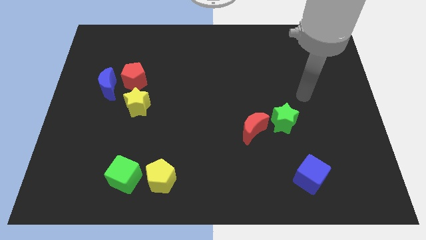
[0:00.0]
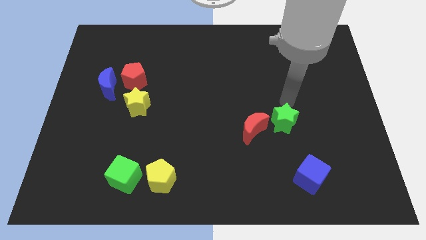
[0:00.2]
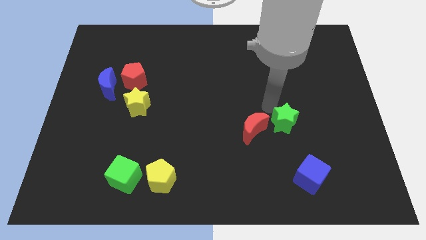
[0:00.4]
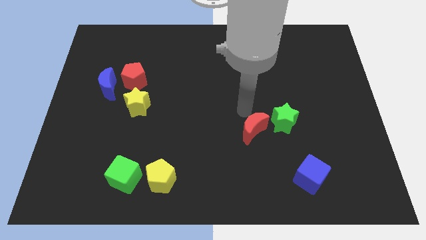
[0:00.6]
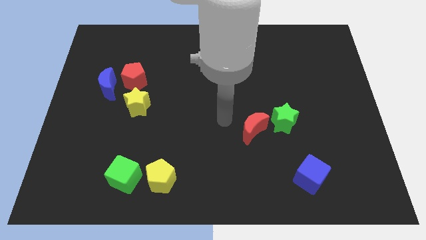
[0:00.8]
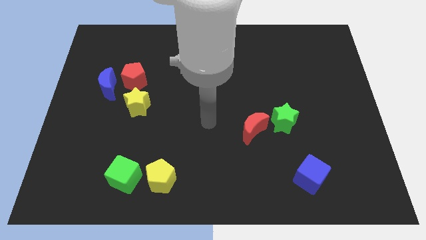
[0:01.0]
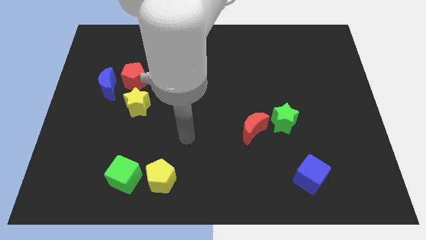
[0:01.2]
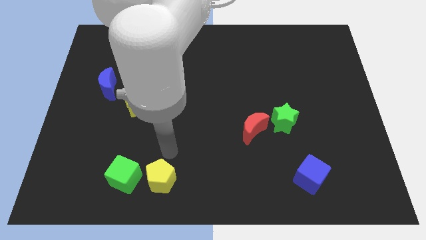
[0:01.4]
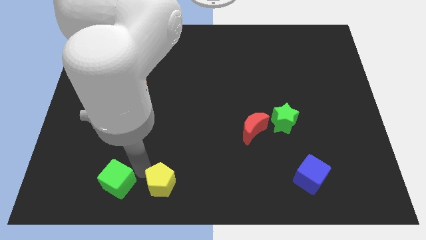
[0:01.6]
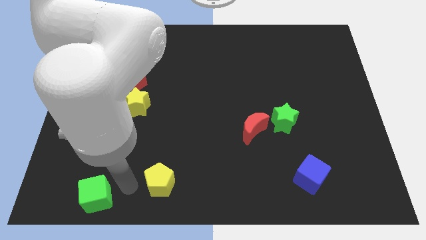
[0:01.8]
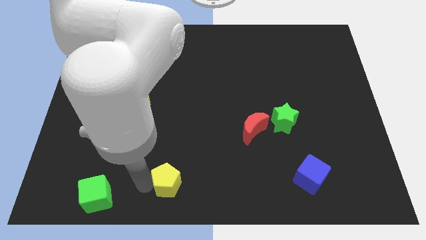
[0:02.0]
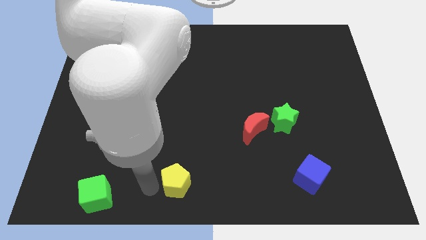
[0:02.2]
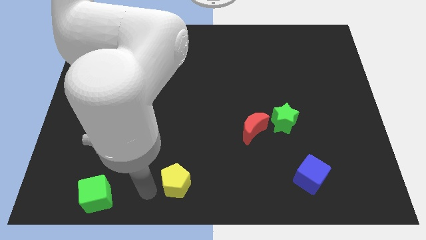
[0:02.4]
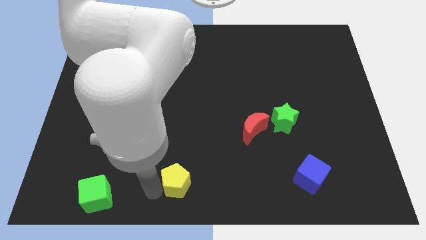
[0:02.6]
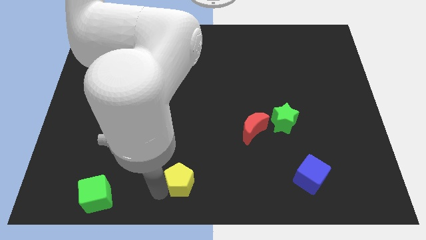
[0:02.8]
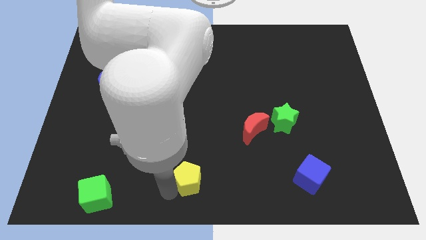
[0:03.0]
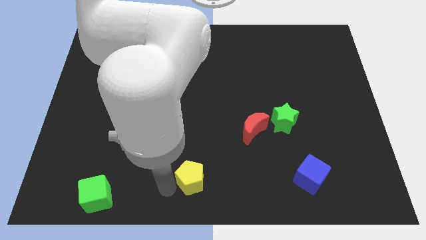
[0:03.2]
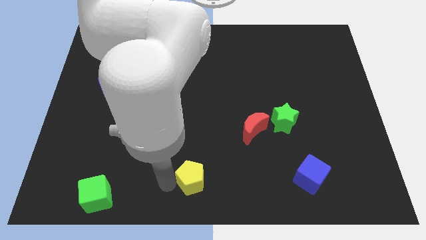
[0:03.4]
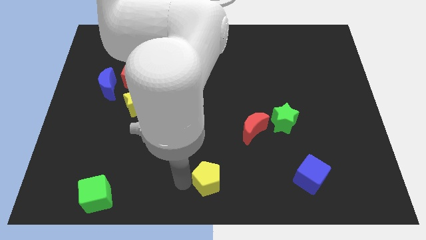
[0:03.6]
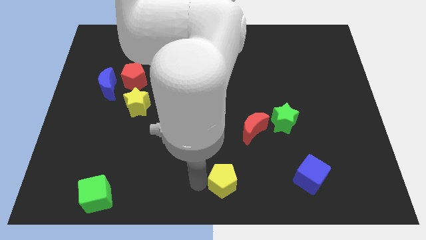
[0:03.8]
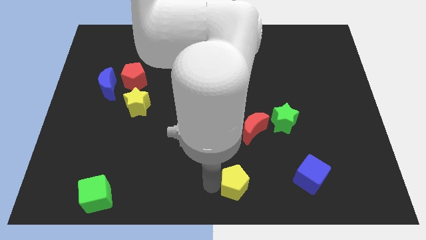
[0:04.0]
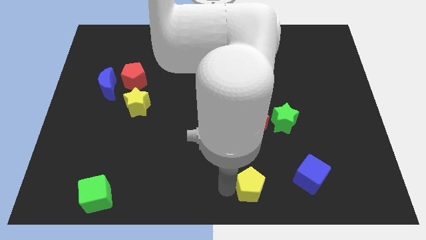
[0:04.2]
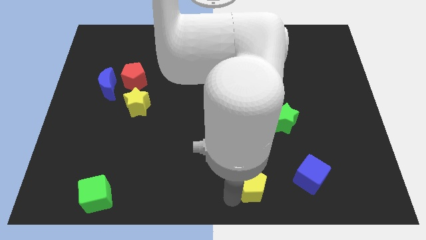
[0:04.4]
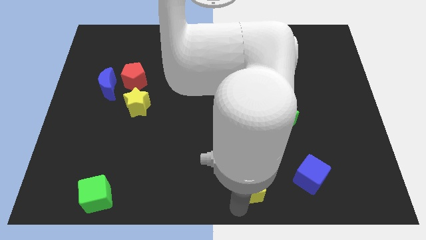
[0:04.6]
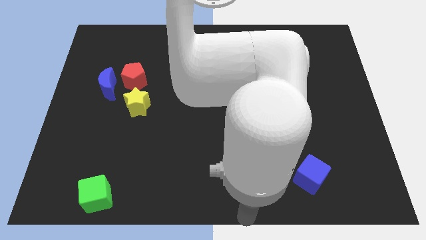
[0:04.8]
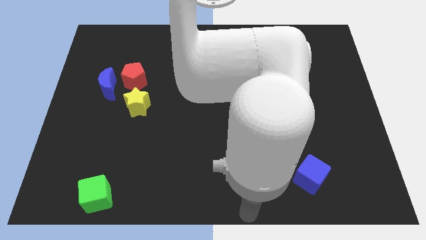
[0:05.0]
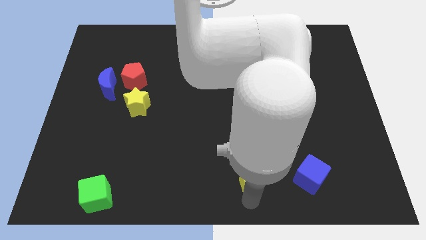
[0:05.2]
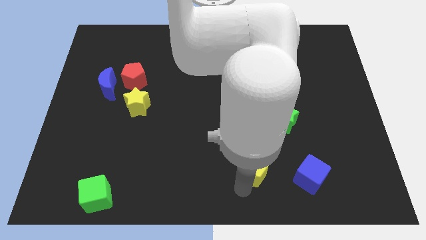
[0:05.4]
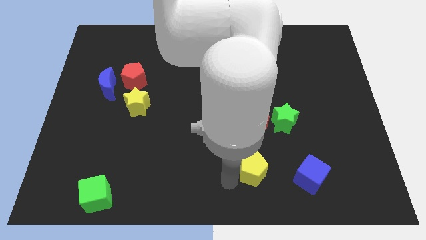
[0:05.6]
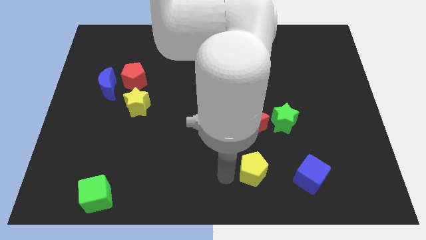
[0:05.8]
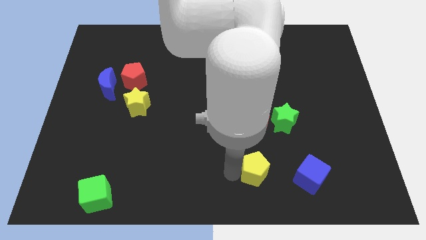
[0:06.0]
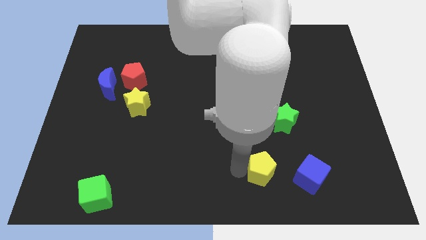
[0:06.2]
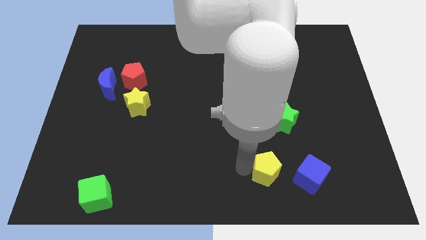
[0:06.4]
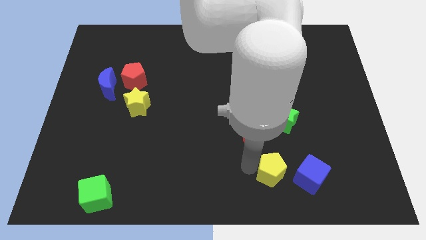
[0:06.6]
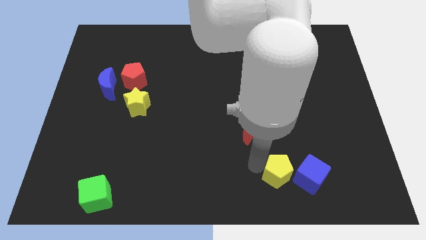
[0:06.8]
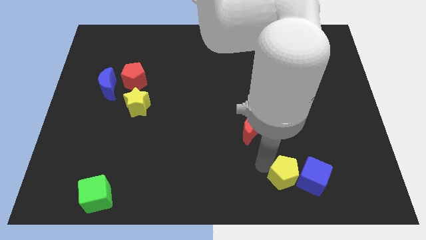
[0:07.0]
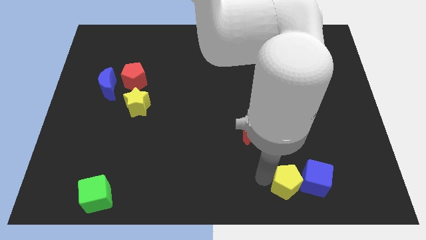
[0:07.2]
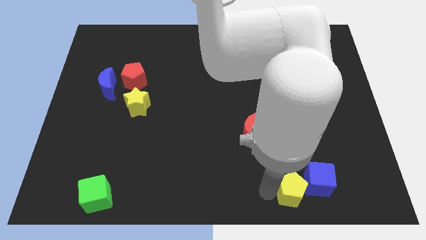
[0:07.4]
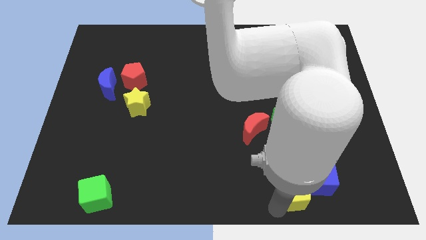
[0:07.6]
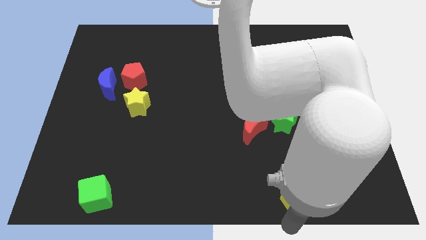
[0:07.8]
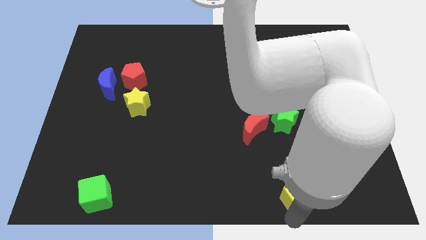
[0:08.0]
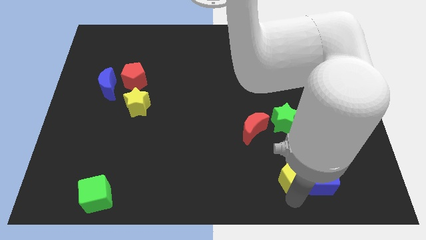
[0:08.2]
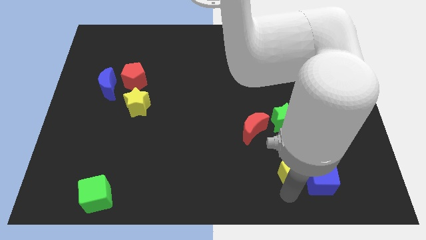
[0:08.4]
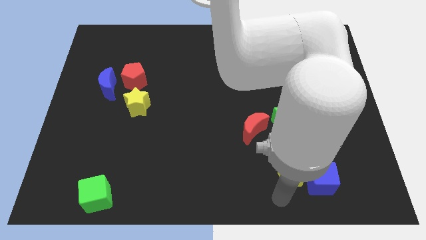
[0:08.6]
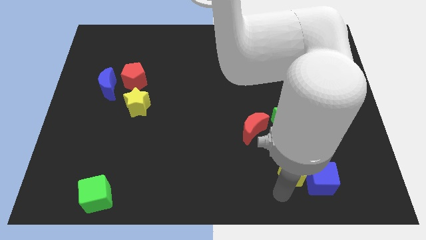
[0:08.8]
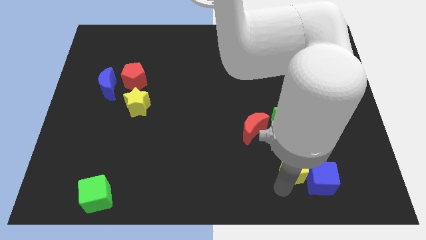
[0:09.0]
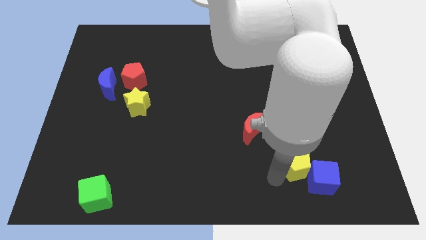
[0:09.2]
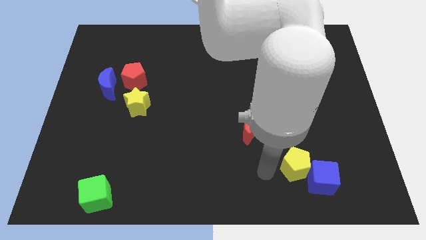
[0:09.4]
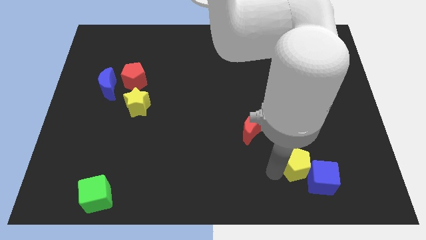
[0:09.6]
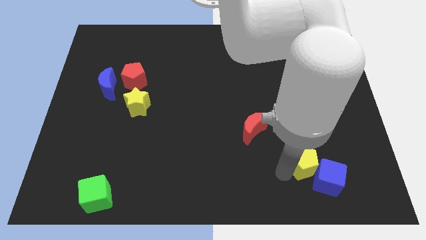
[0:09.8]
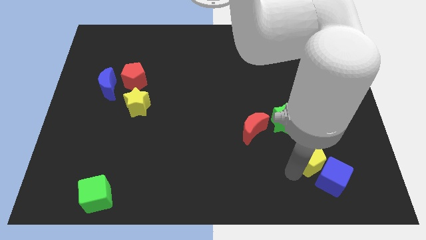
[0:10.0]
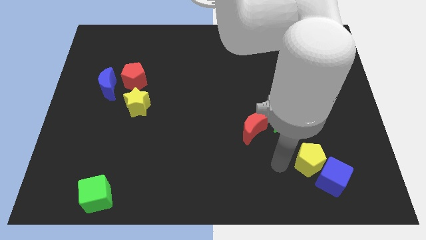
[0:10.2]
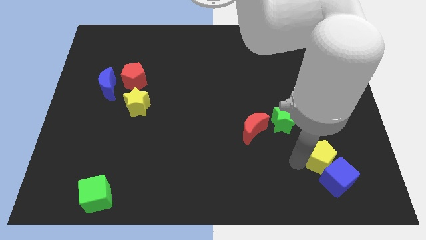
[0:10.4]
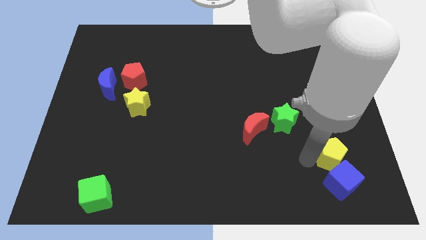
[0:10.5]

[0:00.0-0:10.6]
put the yellow pentagon to the top right side of the blue cube

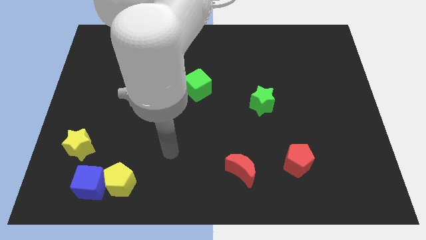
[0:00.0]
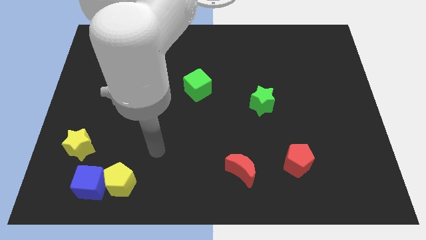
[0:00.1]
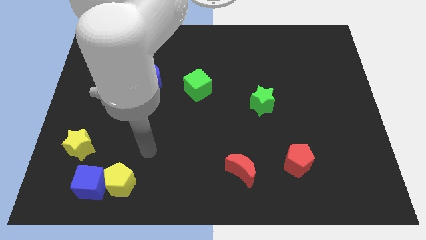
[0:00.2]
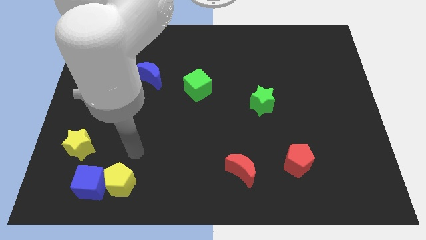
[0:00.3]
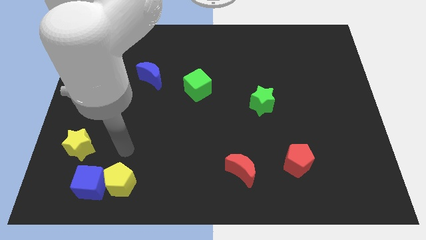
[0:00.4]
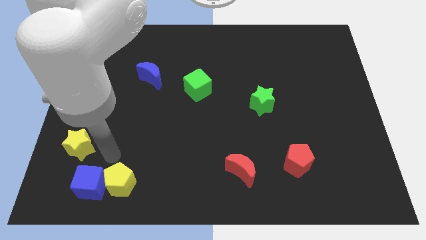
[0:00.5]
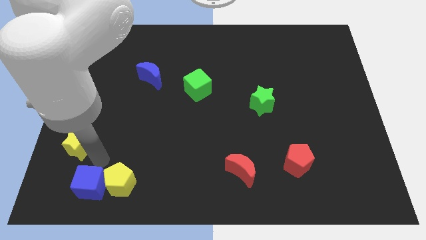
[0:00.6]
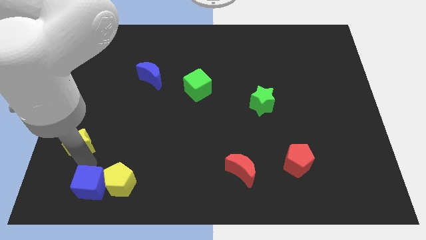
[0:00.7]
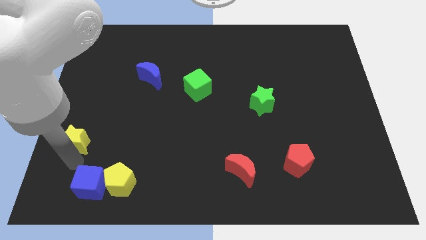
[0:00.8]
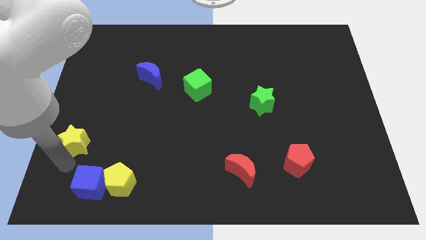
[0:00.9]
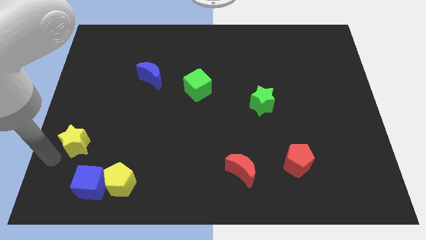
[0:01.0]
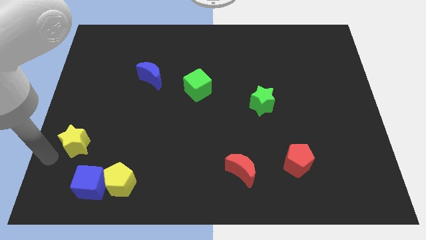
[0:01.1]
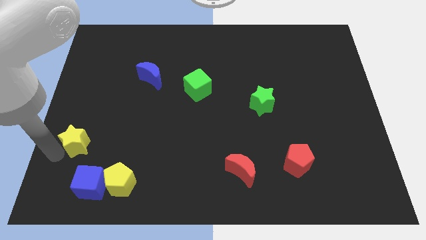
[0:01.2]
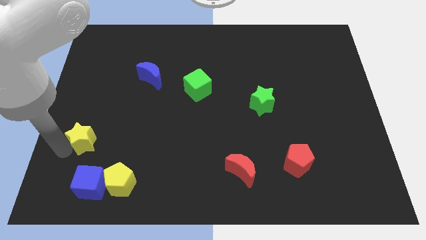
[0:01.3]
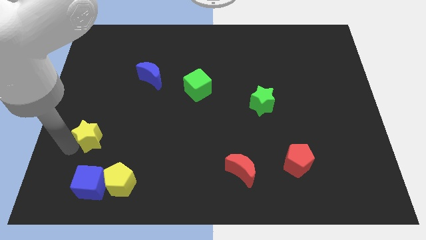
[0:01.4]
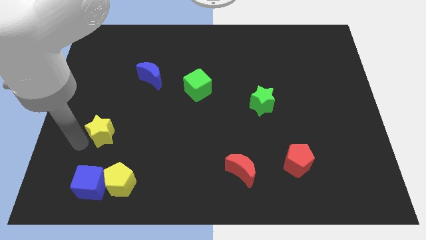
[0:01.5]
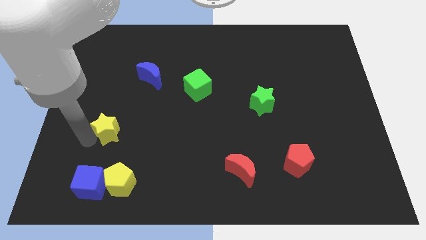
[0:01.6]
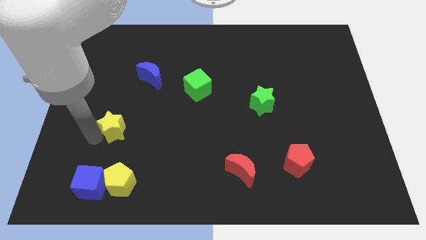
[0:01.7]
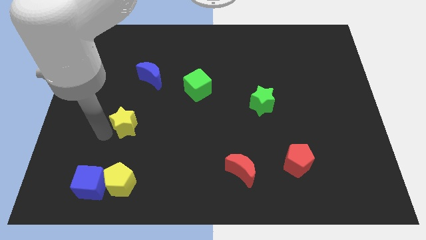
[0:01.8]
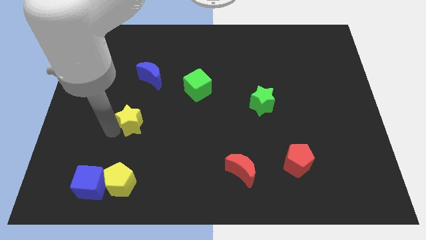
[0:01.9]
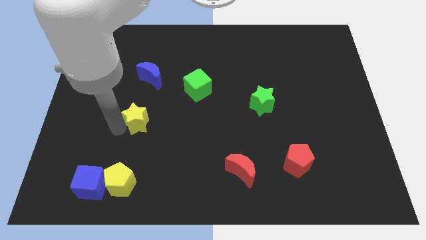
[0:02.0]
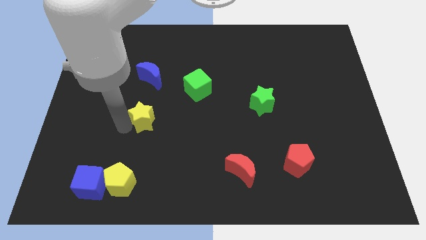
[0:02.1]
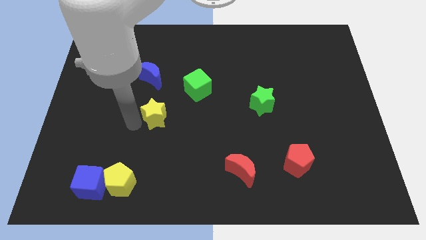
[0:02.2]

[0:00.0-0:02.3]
slide the yellow star to the bottom left side of the green cube
